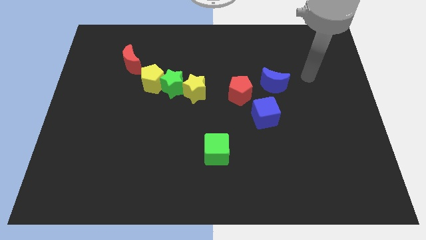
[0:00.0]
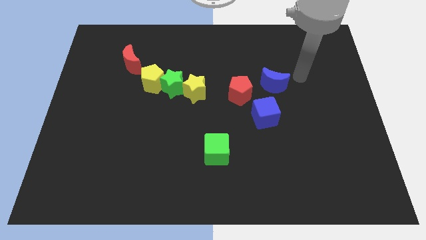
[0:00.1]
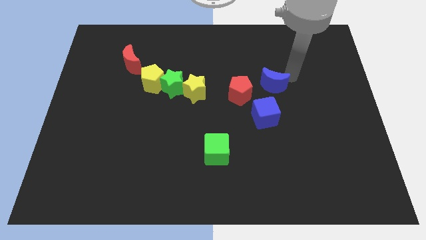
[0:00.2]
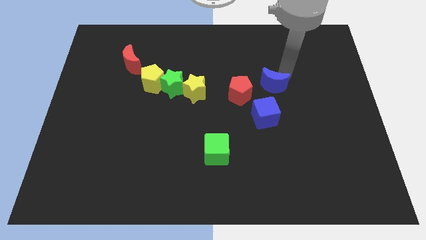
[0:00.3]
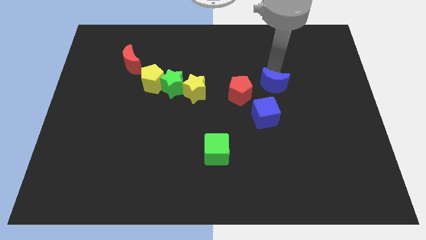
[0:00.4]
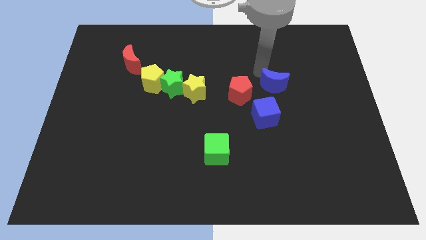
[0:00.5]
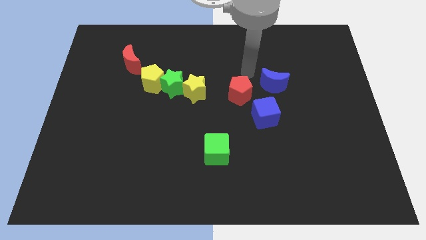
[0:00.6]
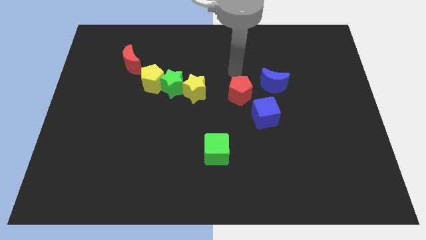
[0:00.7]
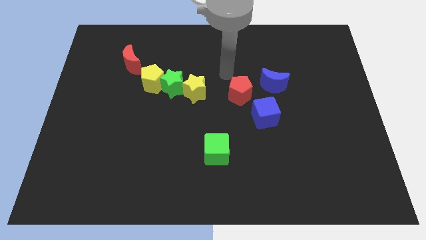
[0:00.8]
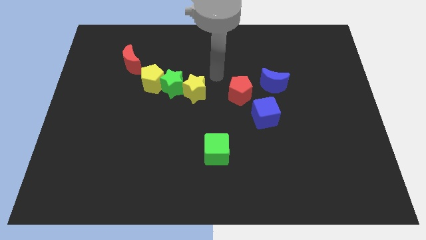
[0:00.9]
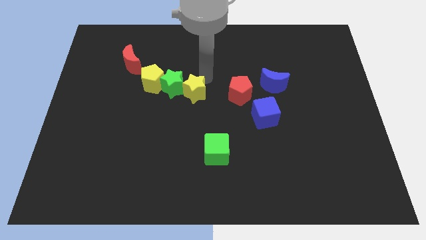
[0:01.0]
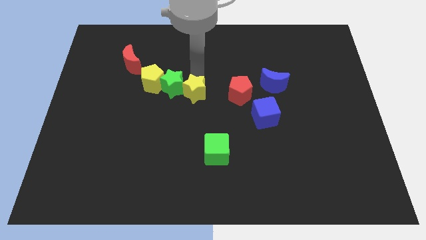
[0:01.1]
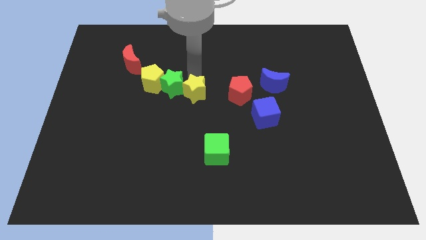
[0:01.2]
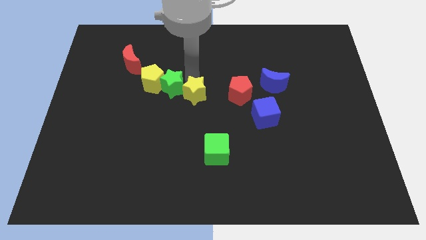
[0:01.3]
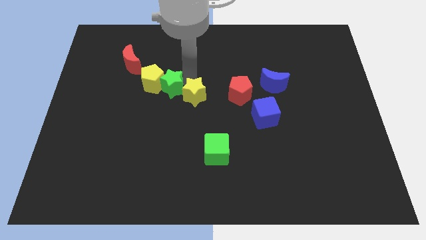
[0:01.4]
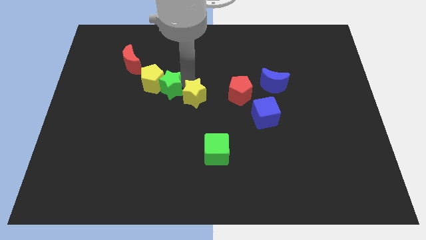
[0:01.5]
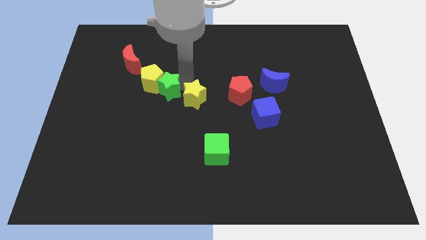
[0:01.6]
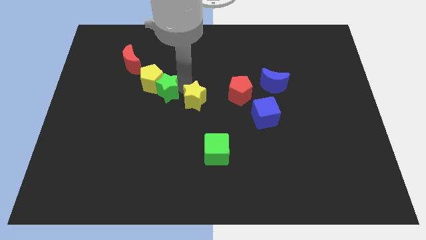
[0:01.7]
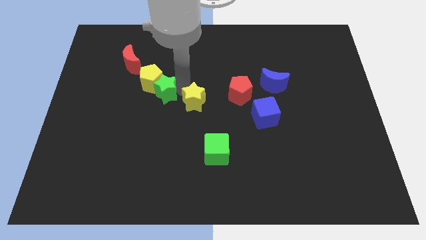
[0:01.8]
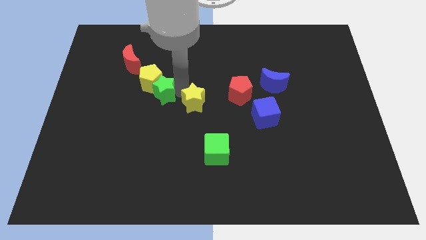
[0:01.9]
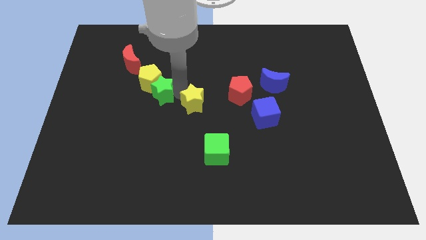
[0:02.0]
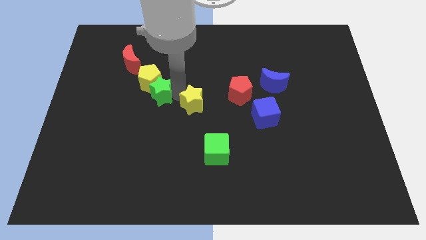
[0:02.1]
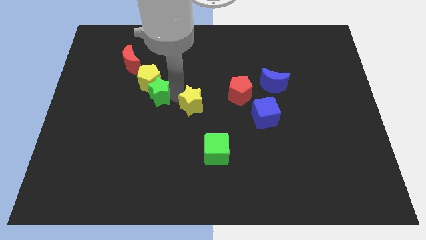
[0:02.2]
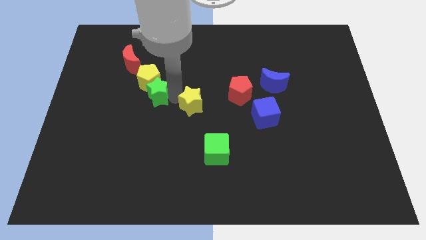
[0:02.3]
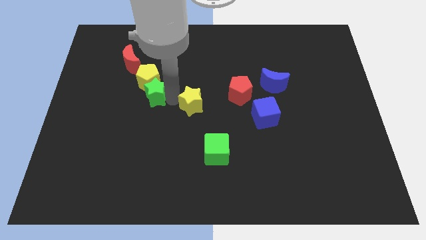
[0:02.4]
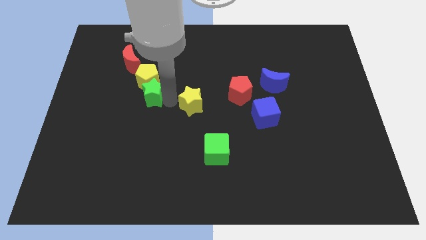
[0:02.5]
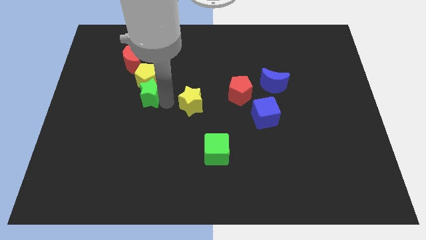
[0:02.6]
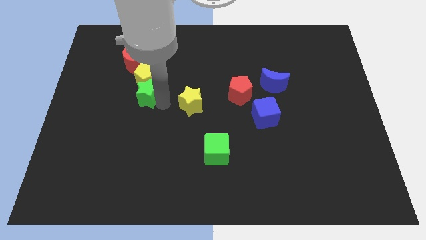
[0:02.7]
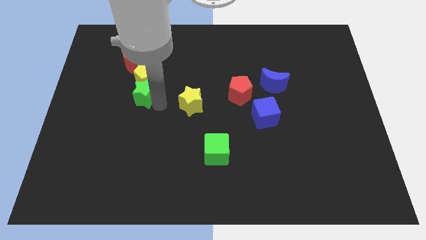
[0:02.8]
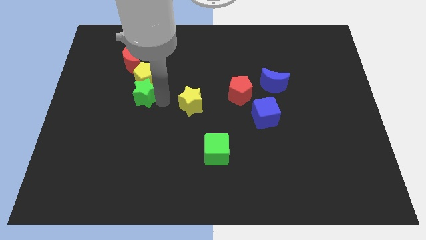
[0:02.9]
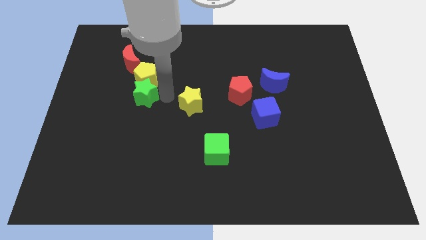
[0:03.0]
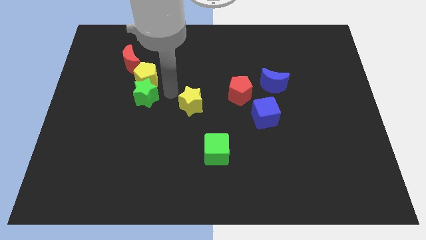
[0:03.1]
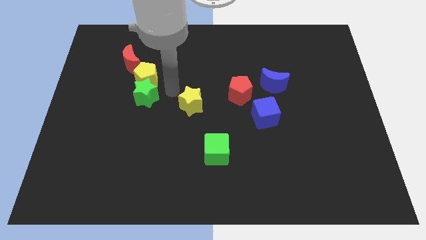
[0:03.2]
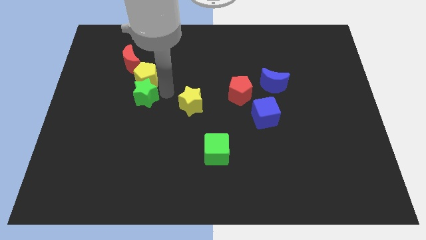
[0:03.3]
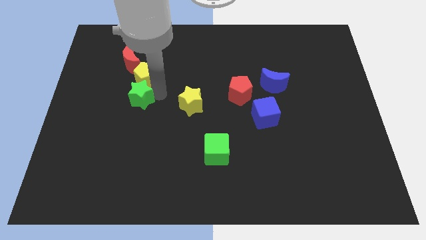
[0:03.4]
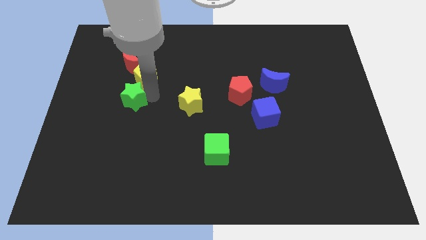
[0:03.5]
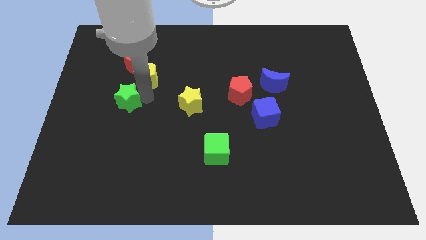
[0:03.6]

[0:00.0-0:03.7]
pull the green star apart from the yellow pentagon and yellow star

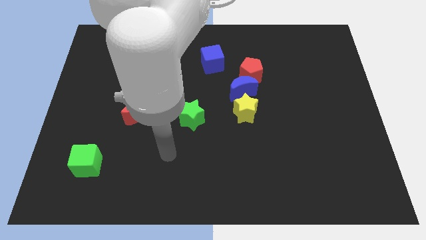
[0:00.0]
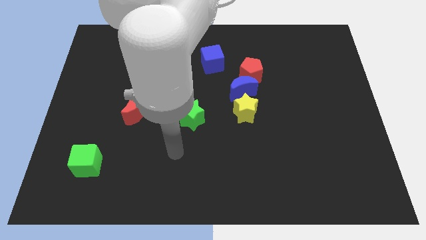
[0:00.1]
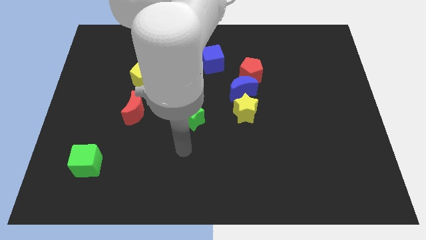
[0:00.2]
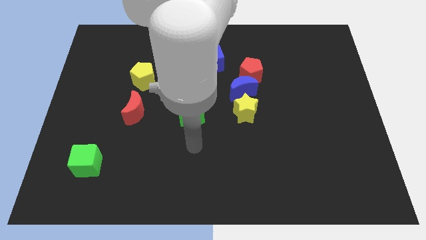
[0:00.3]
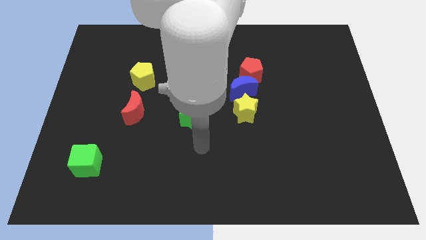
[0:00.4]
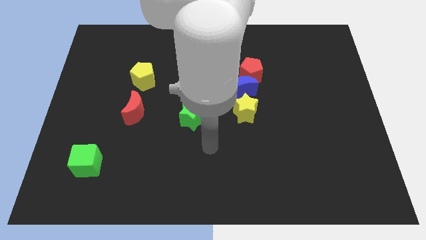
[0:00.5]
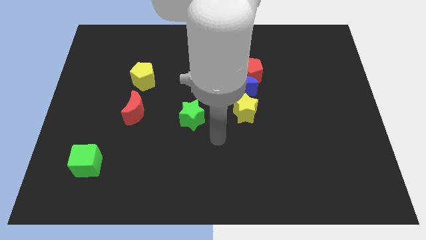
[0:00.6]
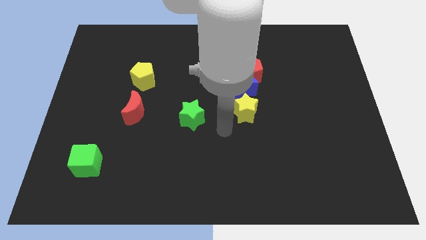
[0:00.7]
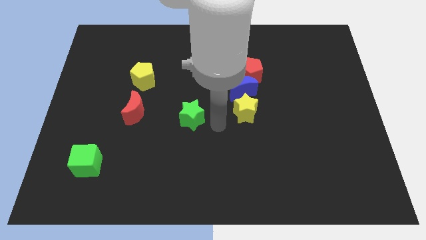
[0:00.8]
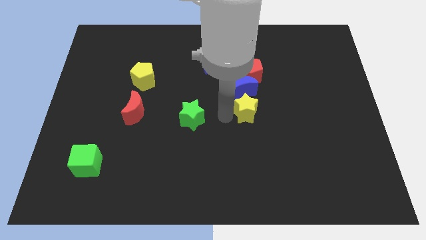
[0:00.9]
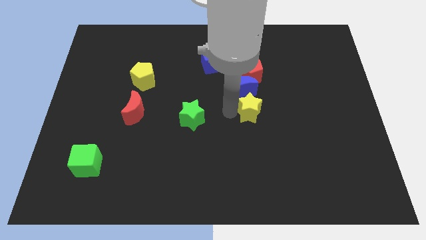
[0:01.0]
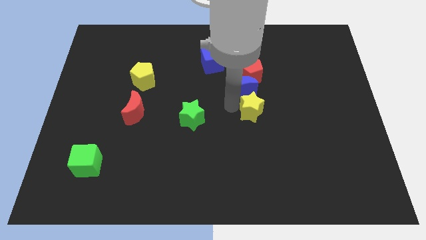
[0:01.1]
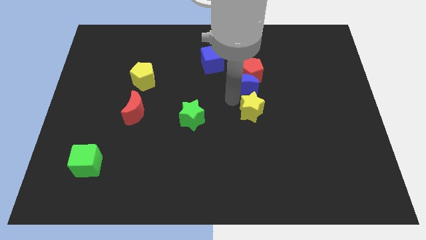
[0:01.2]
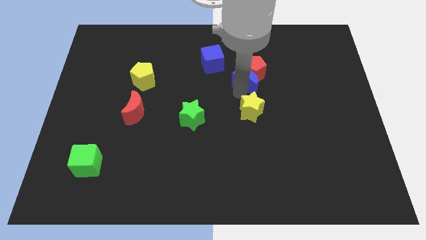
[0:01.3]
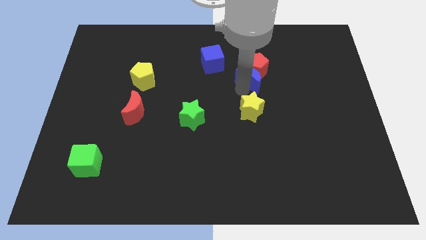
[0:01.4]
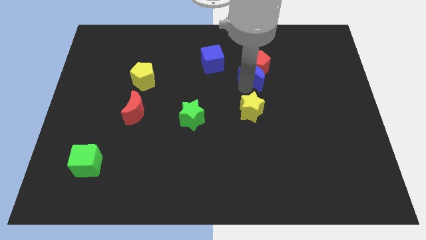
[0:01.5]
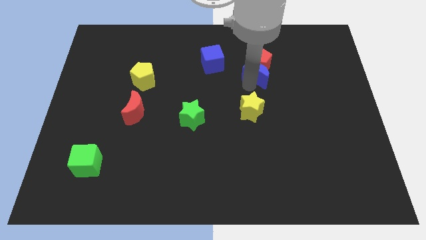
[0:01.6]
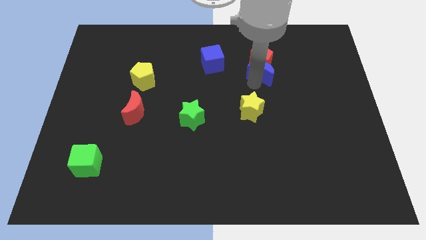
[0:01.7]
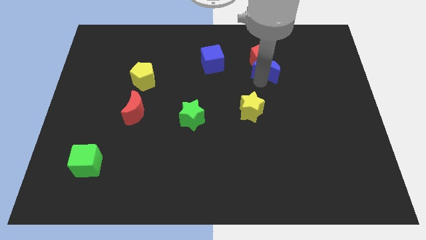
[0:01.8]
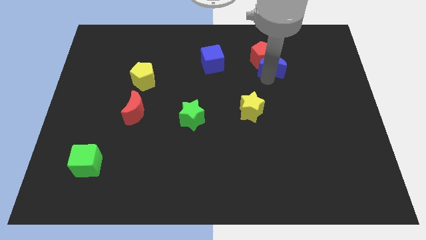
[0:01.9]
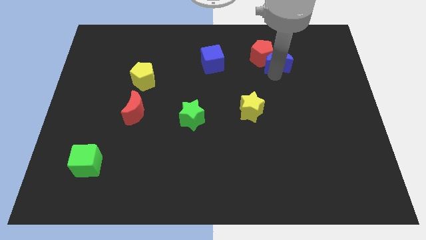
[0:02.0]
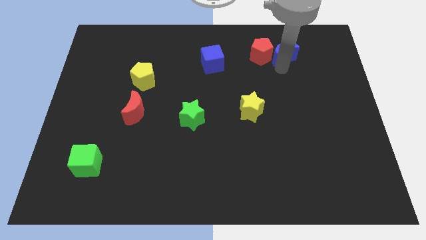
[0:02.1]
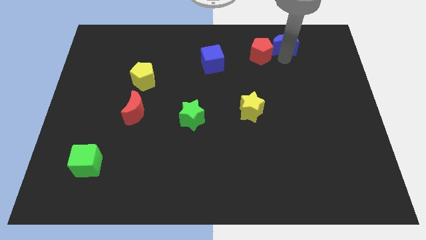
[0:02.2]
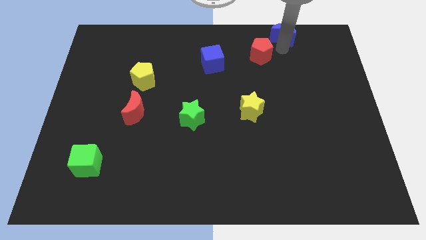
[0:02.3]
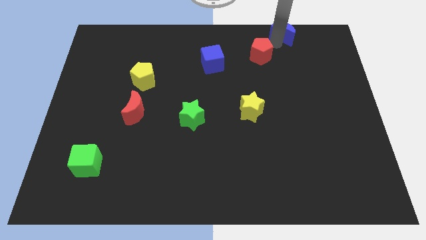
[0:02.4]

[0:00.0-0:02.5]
separate the red pentagon from the blue moon

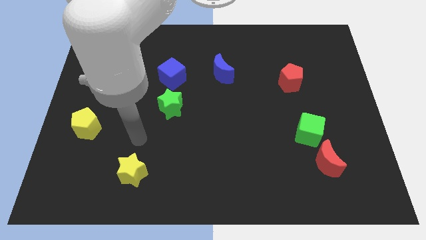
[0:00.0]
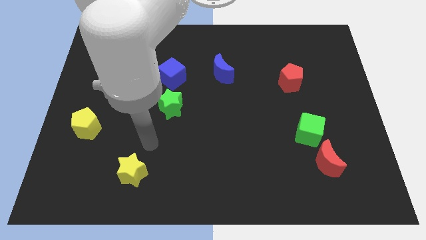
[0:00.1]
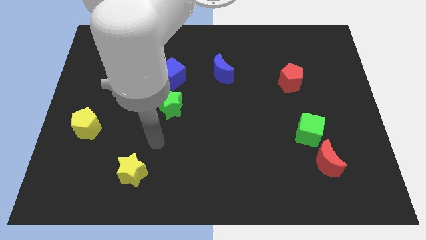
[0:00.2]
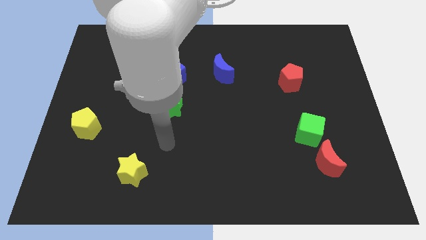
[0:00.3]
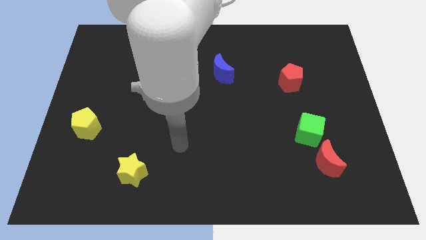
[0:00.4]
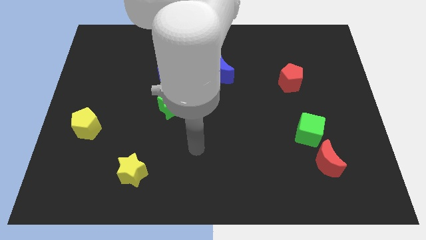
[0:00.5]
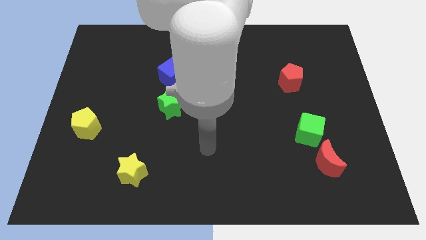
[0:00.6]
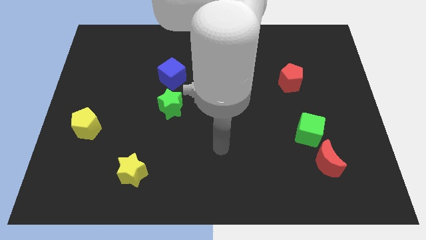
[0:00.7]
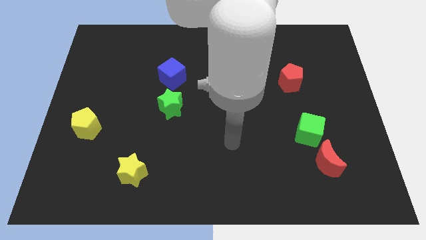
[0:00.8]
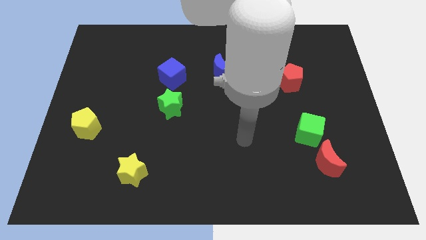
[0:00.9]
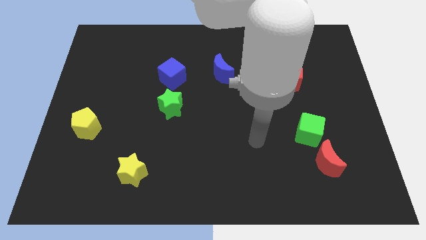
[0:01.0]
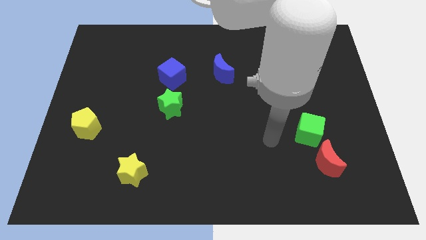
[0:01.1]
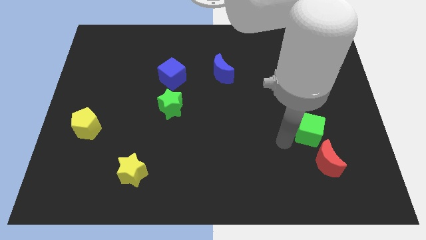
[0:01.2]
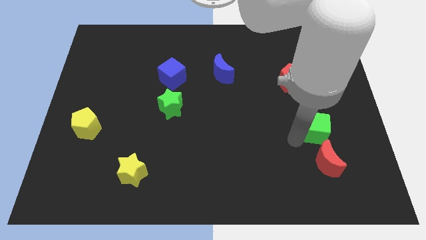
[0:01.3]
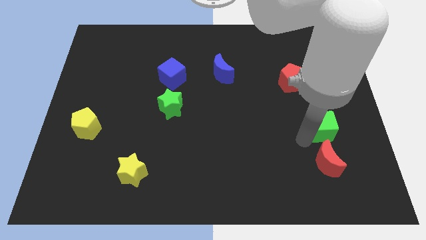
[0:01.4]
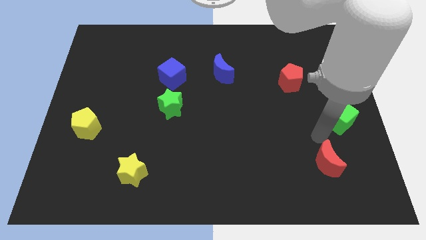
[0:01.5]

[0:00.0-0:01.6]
pull the red moon apart from the green cube

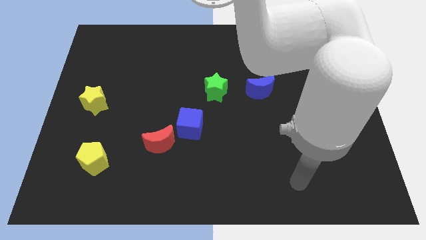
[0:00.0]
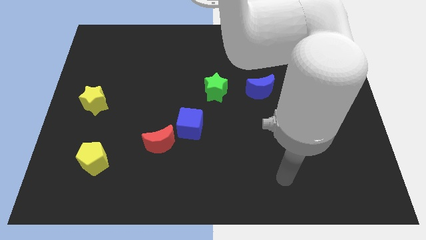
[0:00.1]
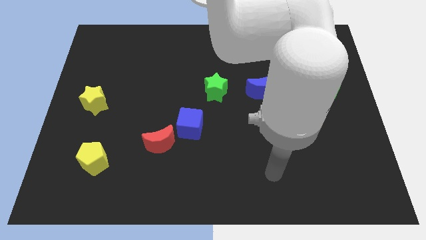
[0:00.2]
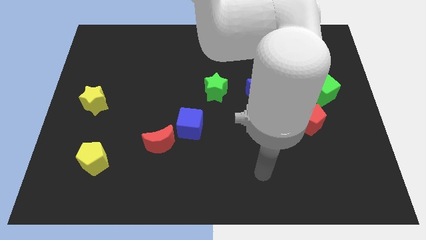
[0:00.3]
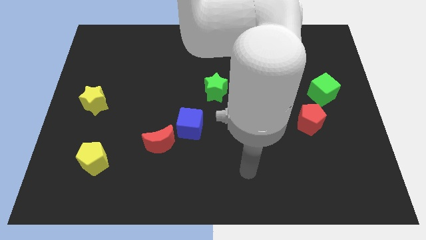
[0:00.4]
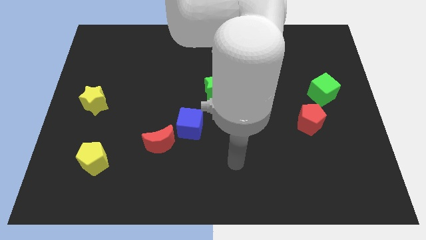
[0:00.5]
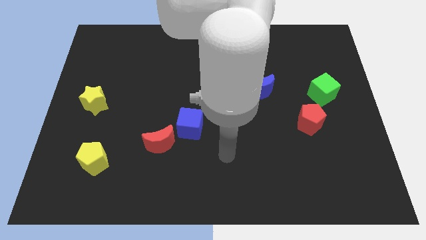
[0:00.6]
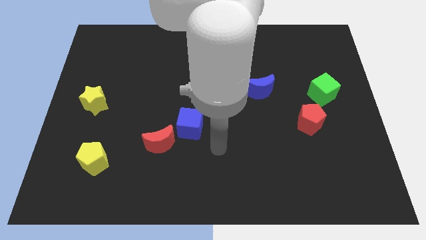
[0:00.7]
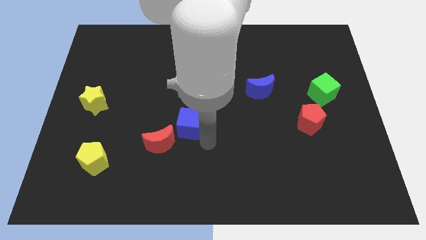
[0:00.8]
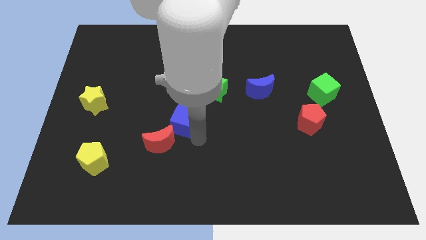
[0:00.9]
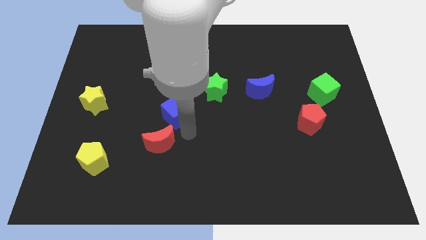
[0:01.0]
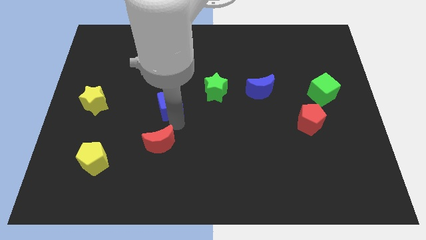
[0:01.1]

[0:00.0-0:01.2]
separate the red moon from the blue cube

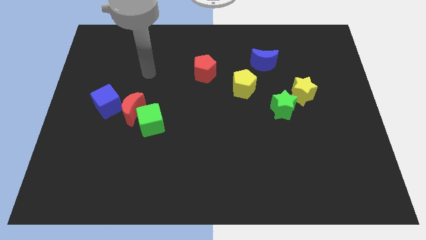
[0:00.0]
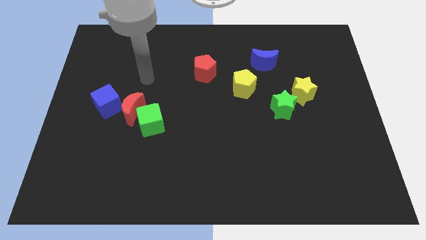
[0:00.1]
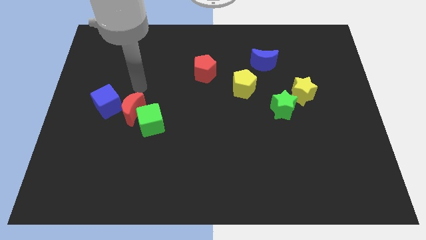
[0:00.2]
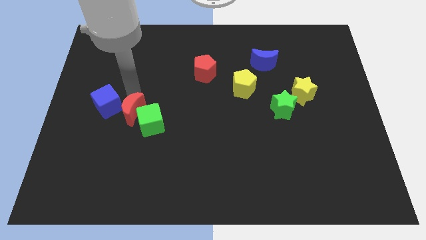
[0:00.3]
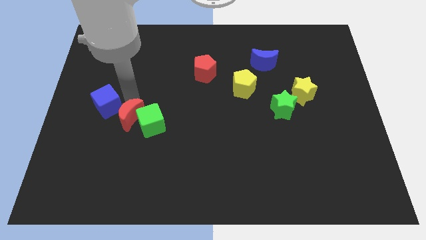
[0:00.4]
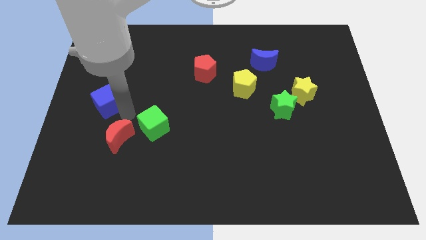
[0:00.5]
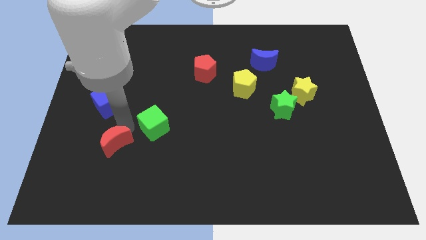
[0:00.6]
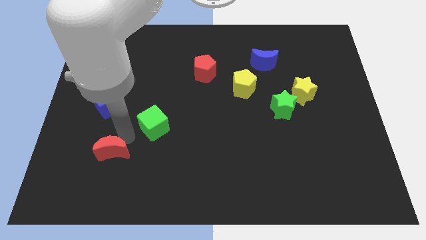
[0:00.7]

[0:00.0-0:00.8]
separate the green cube from the red moon
